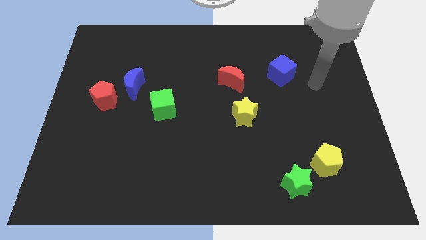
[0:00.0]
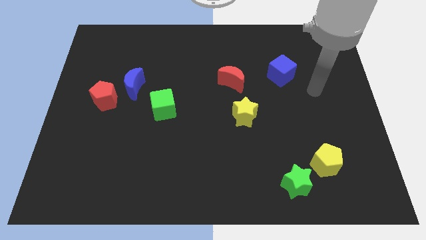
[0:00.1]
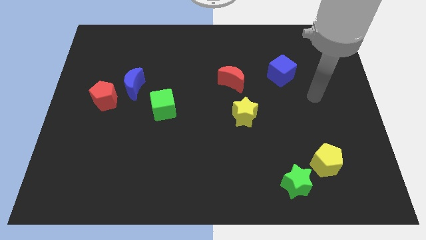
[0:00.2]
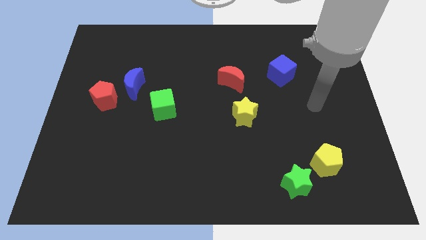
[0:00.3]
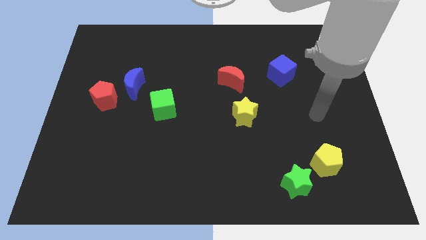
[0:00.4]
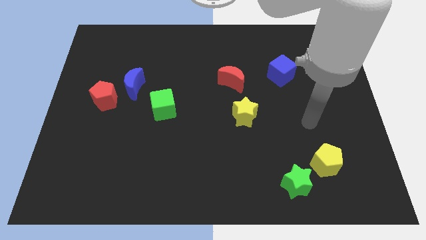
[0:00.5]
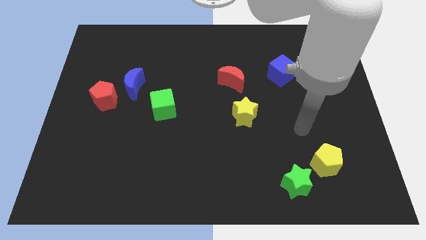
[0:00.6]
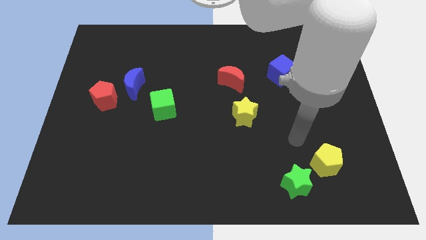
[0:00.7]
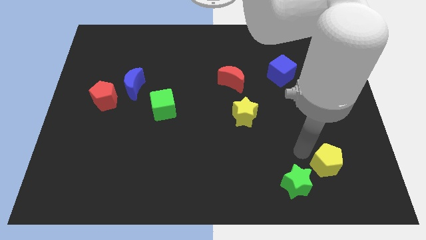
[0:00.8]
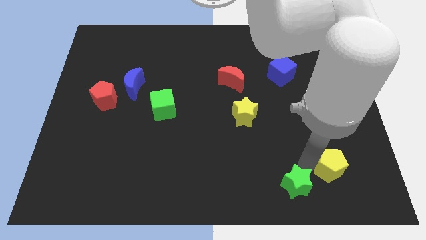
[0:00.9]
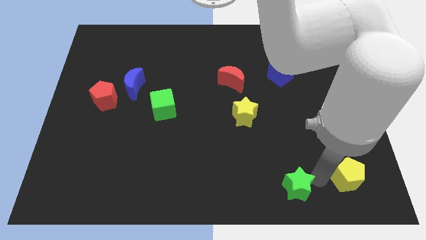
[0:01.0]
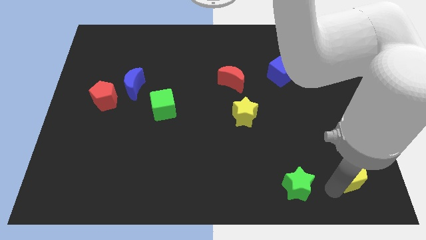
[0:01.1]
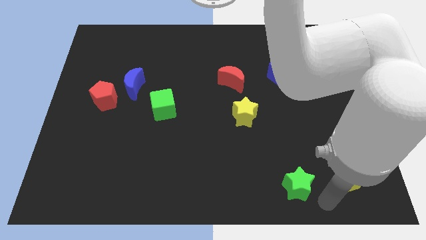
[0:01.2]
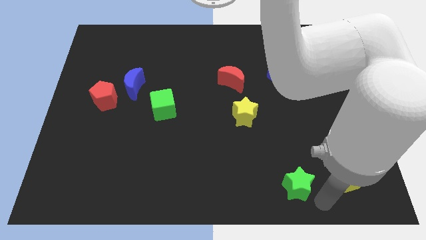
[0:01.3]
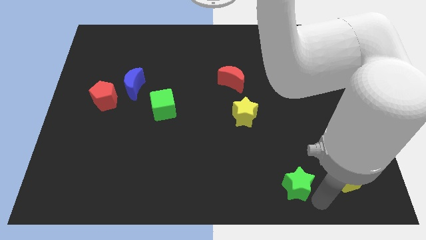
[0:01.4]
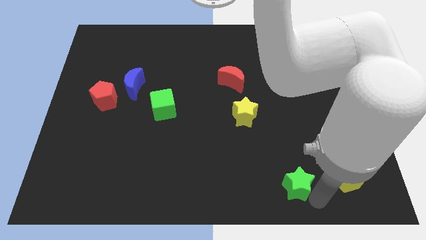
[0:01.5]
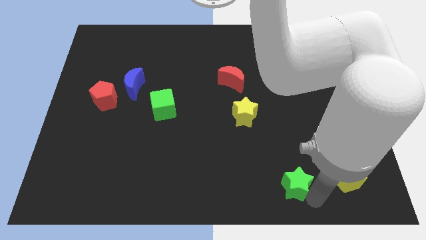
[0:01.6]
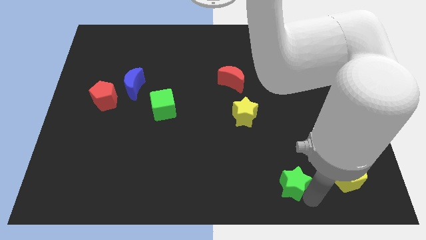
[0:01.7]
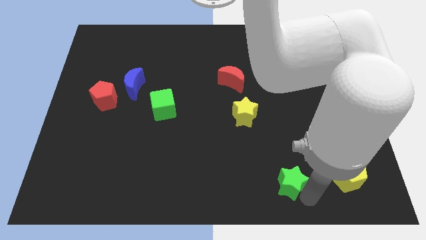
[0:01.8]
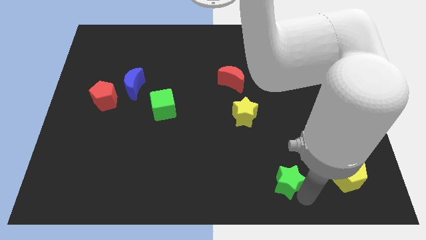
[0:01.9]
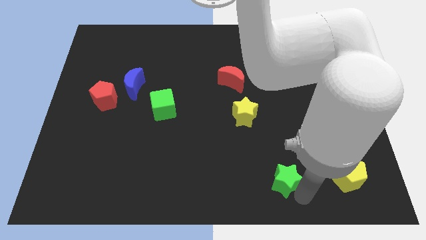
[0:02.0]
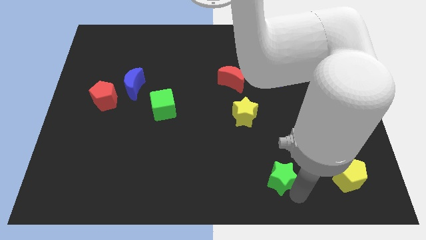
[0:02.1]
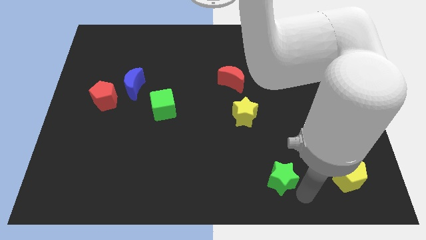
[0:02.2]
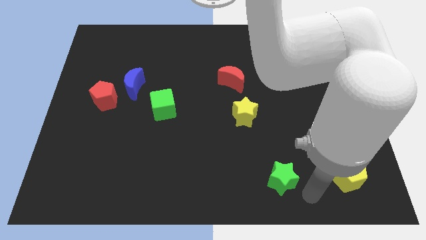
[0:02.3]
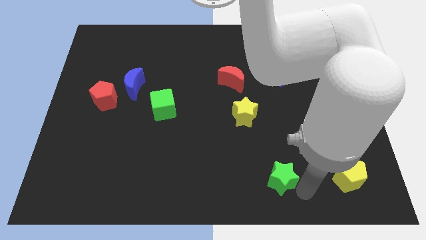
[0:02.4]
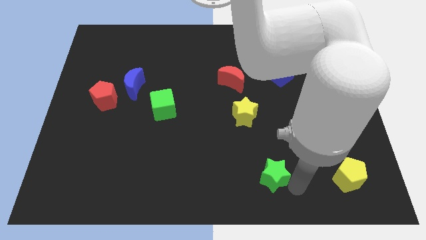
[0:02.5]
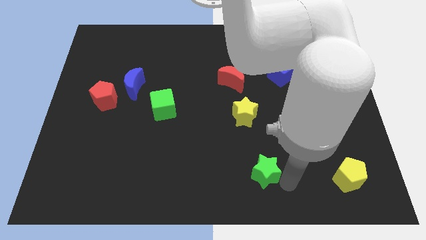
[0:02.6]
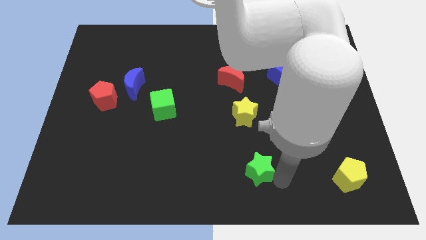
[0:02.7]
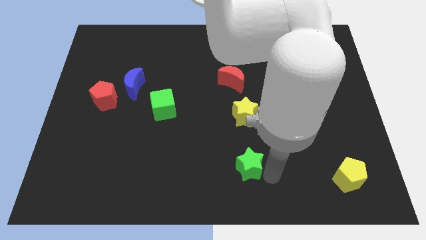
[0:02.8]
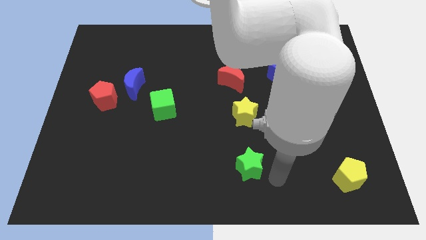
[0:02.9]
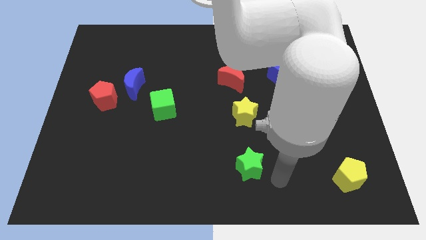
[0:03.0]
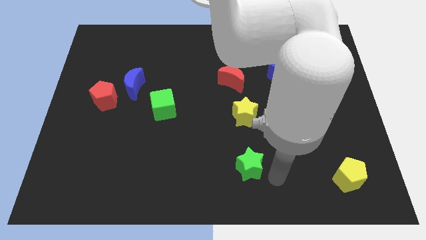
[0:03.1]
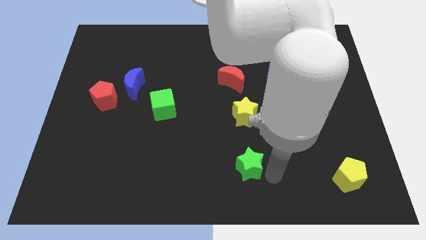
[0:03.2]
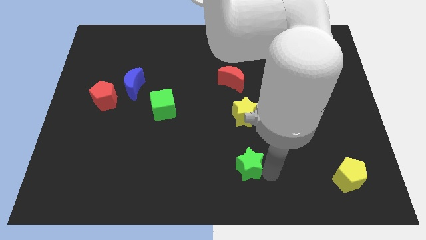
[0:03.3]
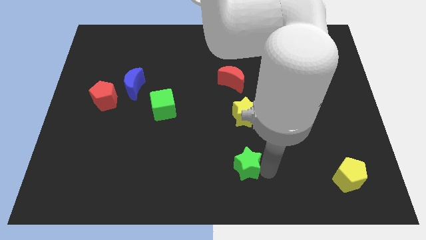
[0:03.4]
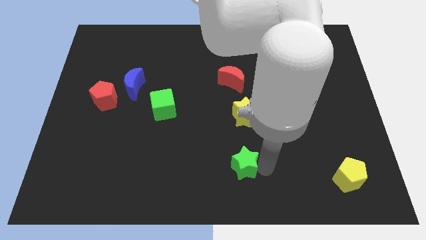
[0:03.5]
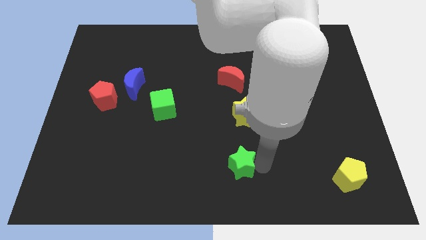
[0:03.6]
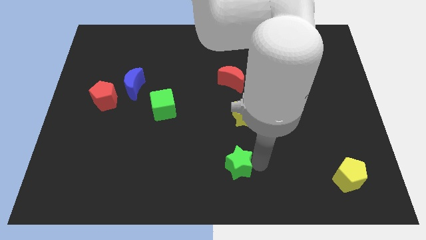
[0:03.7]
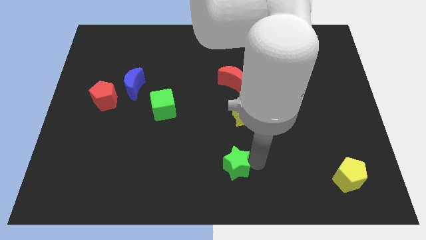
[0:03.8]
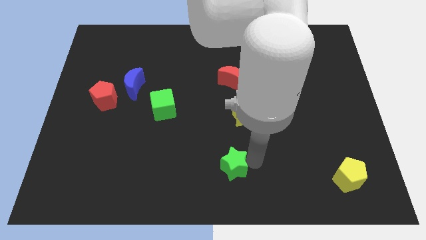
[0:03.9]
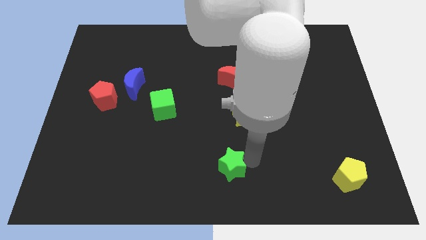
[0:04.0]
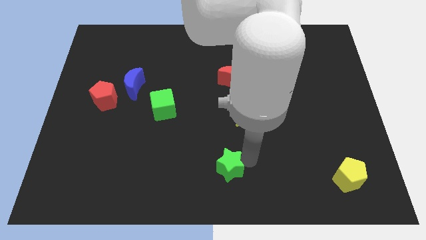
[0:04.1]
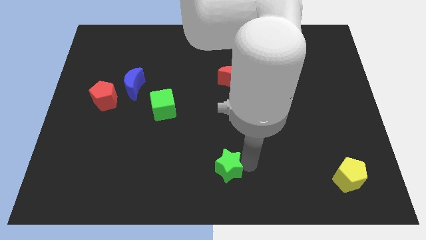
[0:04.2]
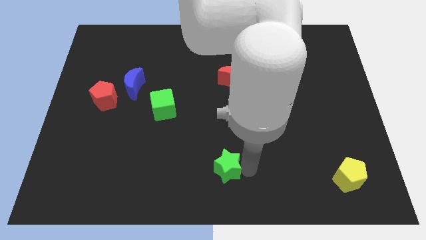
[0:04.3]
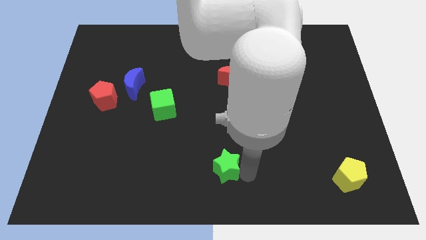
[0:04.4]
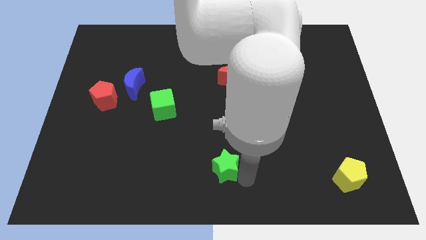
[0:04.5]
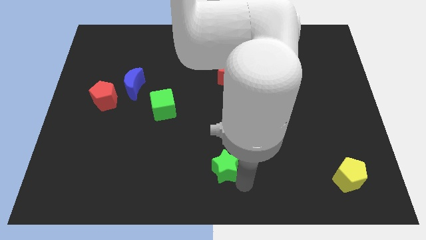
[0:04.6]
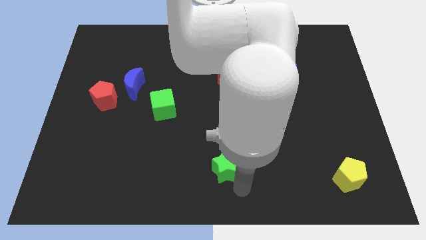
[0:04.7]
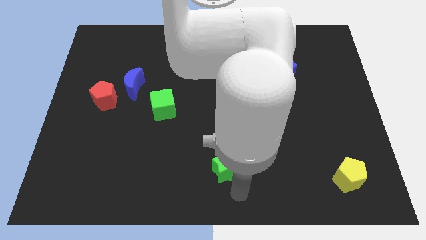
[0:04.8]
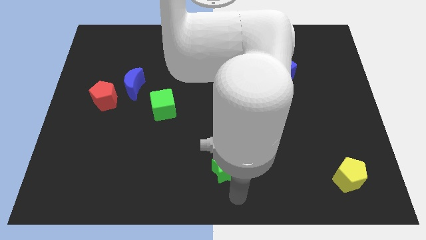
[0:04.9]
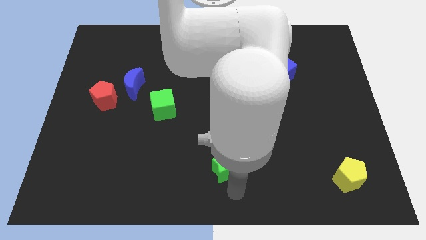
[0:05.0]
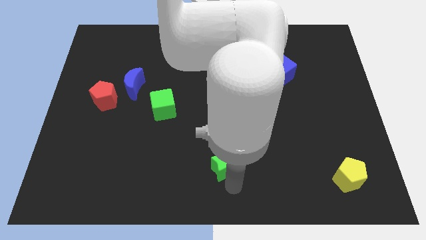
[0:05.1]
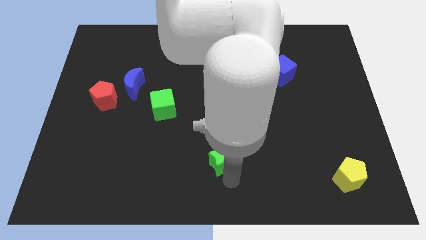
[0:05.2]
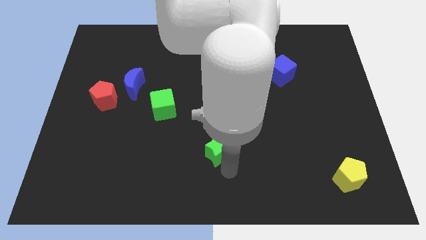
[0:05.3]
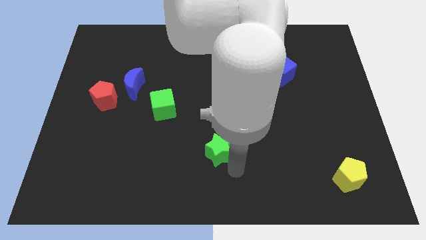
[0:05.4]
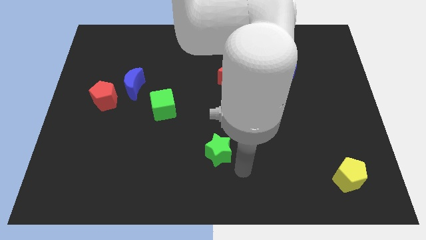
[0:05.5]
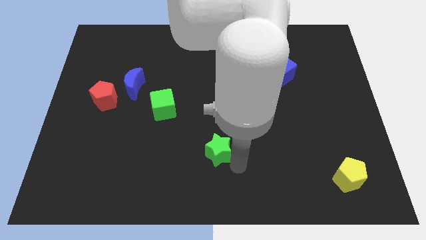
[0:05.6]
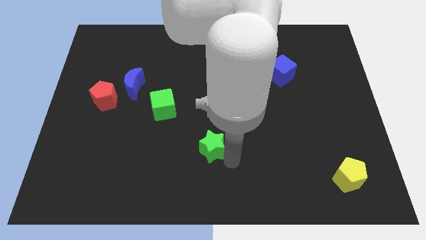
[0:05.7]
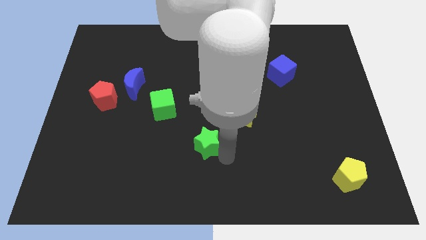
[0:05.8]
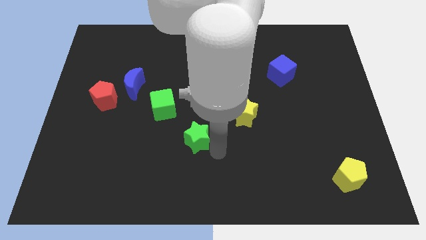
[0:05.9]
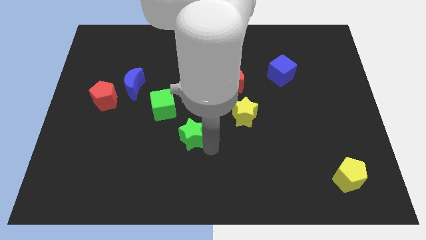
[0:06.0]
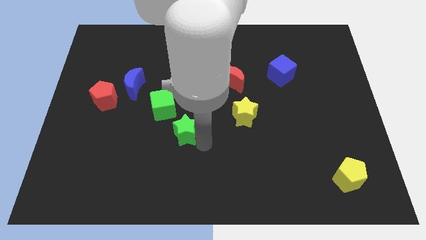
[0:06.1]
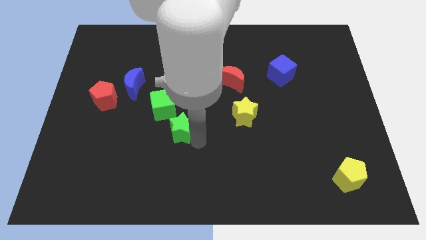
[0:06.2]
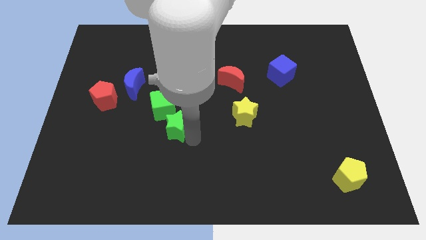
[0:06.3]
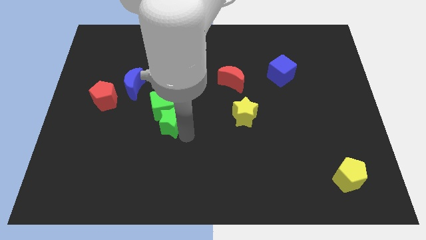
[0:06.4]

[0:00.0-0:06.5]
slide the green star towards the green cube
